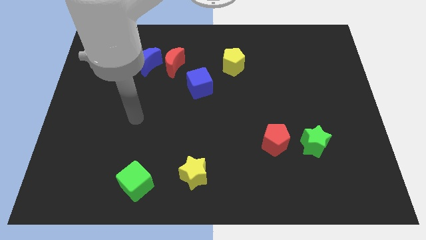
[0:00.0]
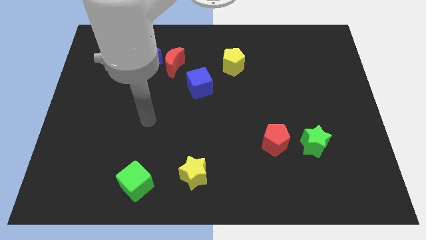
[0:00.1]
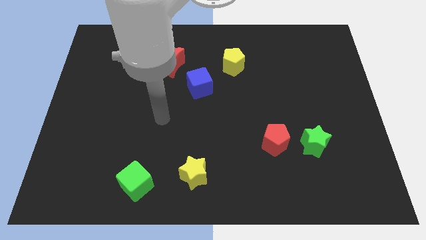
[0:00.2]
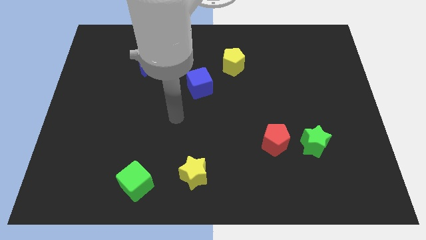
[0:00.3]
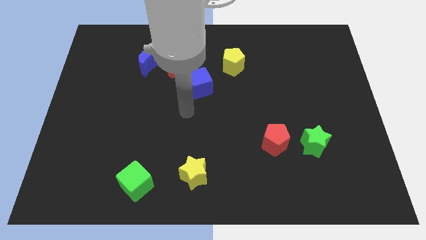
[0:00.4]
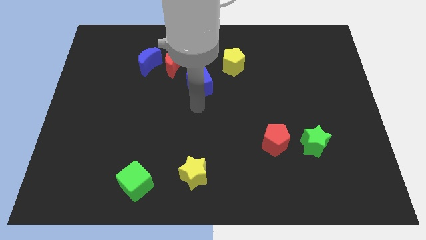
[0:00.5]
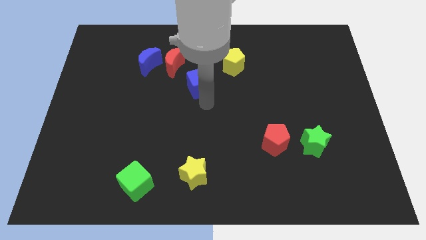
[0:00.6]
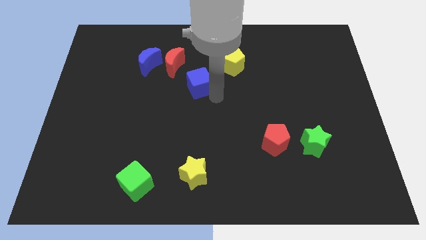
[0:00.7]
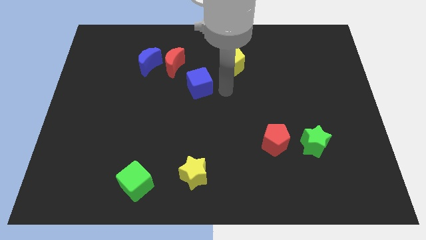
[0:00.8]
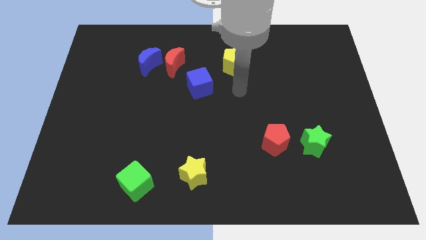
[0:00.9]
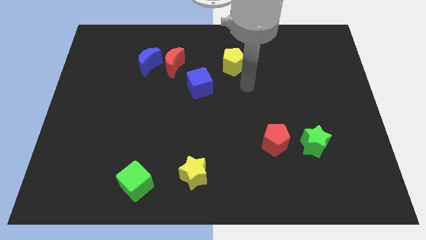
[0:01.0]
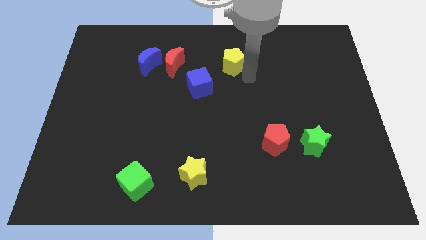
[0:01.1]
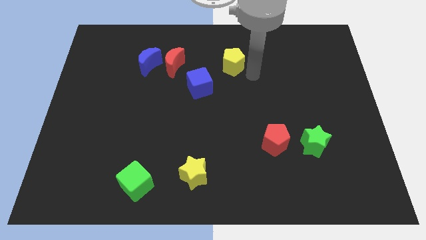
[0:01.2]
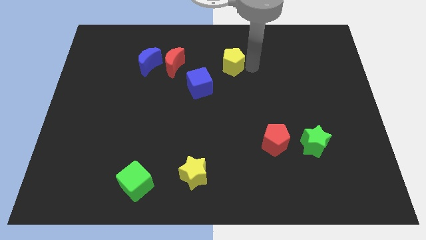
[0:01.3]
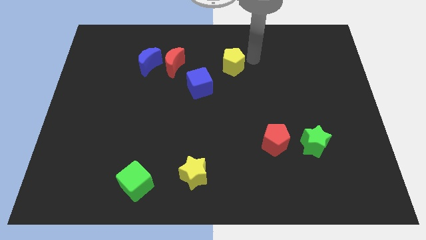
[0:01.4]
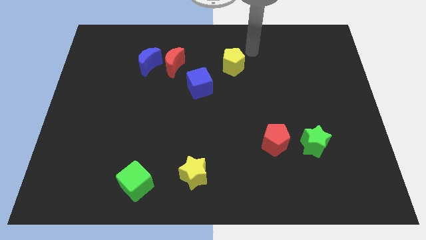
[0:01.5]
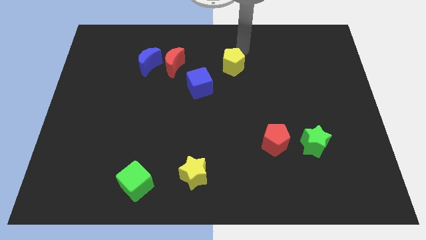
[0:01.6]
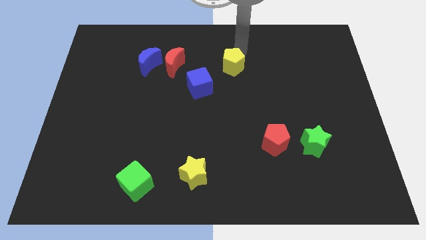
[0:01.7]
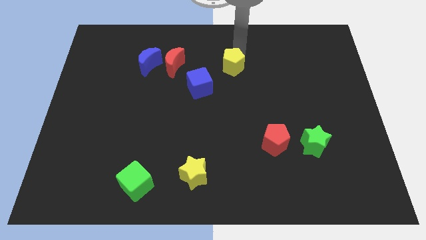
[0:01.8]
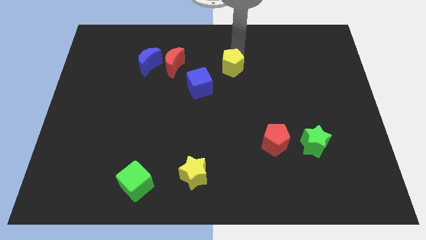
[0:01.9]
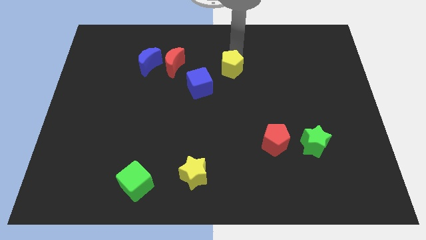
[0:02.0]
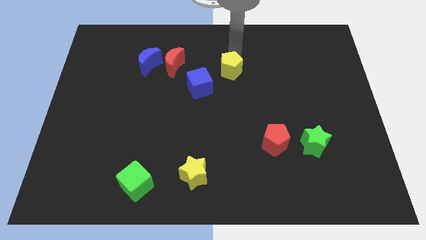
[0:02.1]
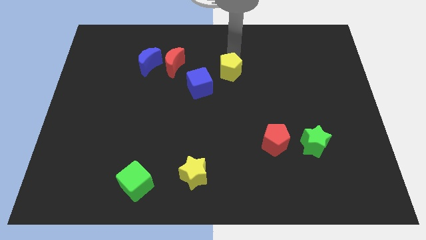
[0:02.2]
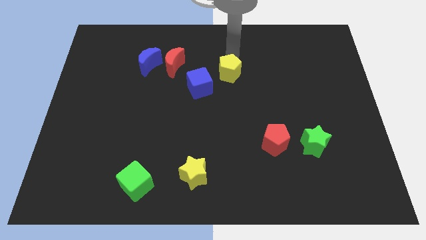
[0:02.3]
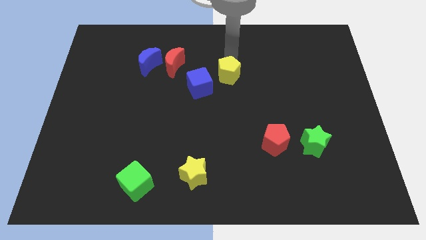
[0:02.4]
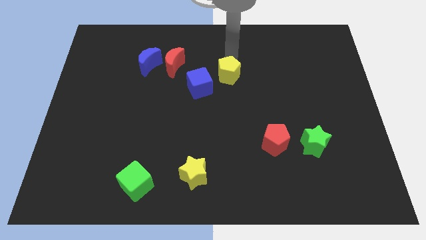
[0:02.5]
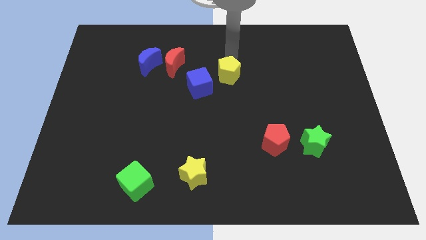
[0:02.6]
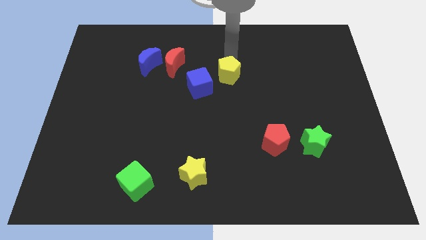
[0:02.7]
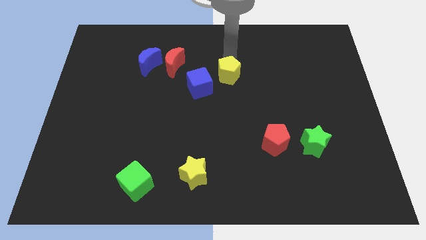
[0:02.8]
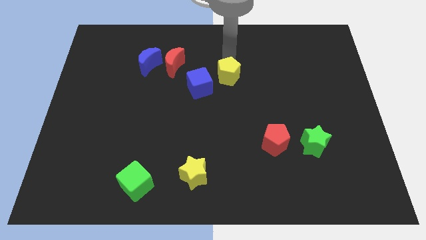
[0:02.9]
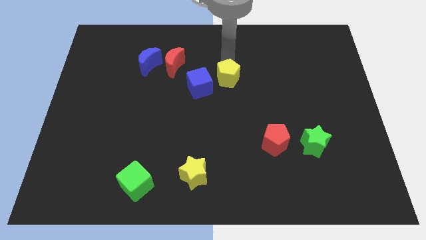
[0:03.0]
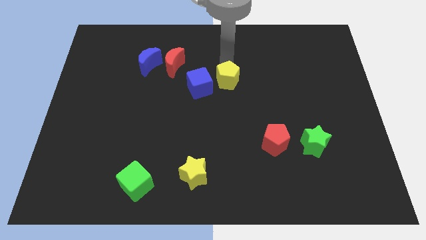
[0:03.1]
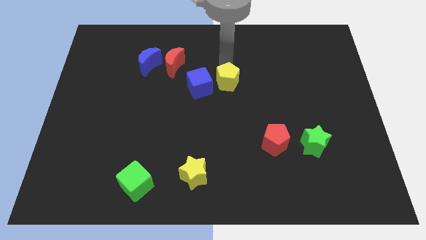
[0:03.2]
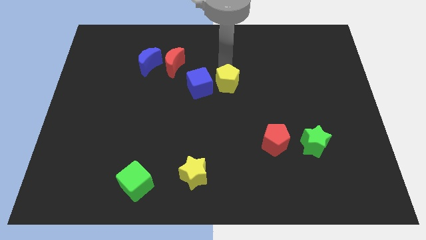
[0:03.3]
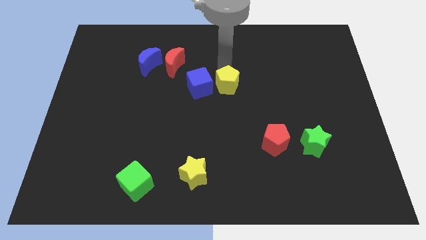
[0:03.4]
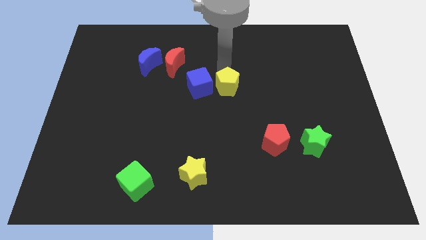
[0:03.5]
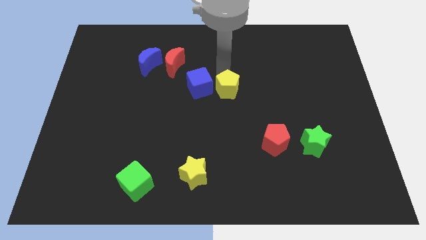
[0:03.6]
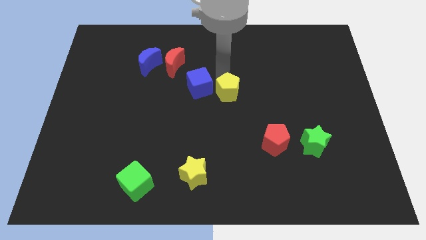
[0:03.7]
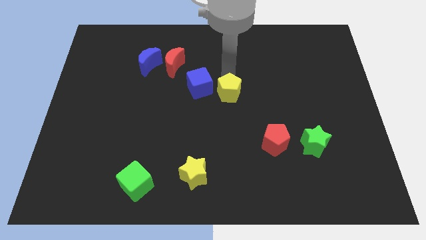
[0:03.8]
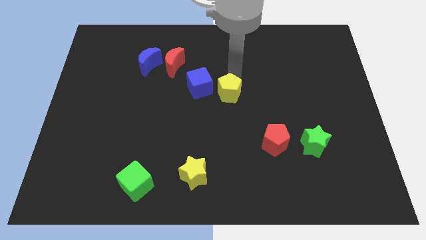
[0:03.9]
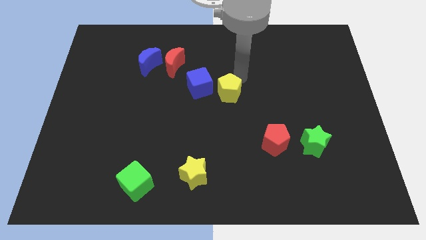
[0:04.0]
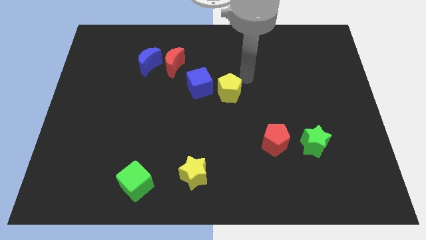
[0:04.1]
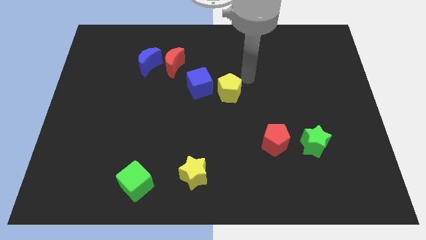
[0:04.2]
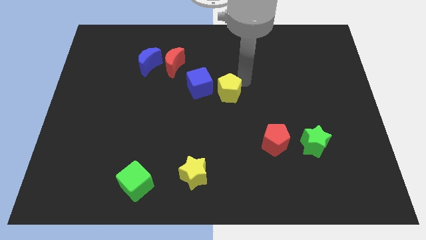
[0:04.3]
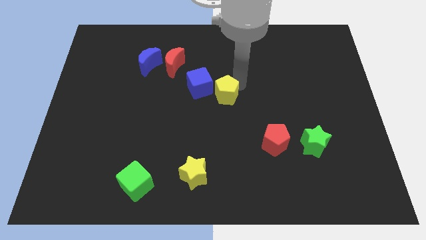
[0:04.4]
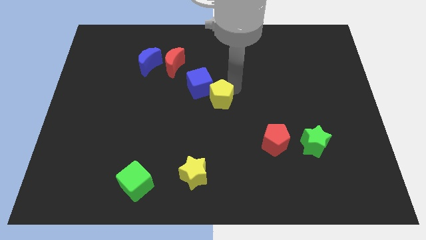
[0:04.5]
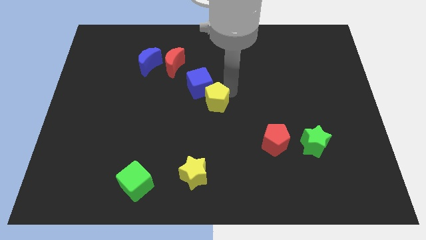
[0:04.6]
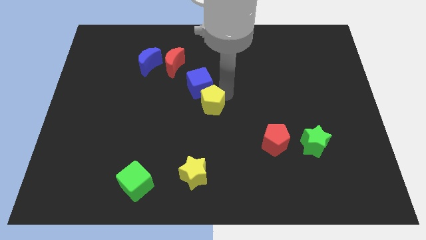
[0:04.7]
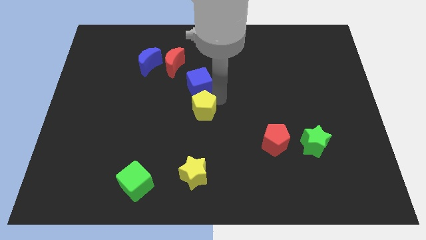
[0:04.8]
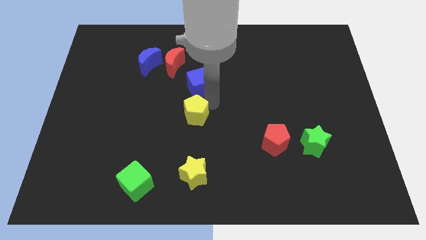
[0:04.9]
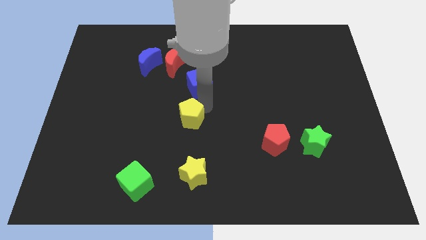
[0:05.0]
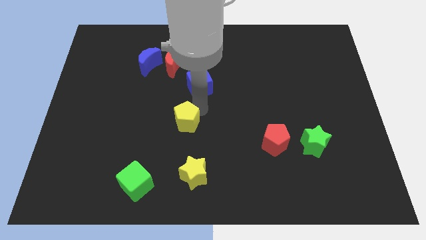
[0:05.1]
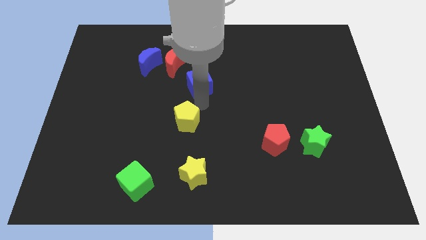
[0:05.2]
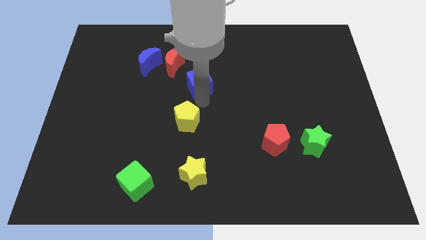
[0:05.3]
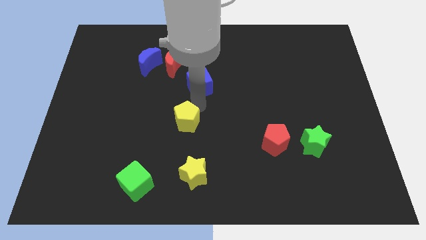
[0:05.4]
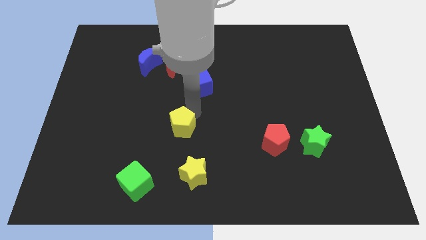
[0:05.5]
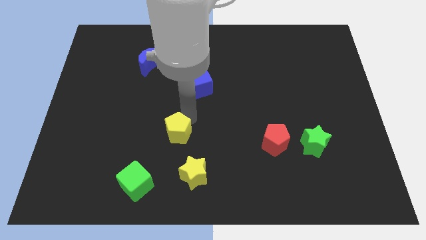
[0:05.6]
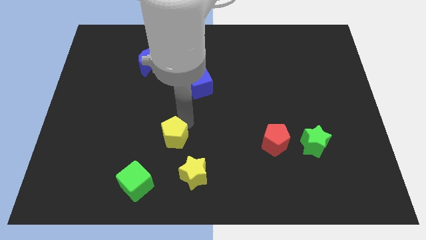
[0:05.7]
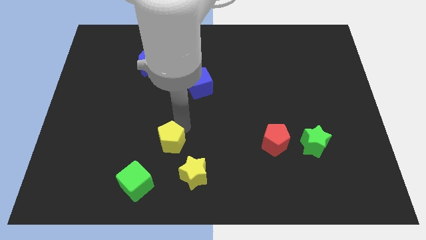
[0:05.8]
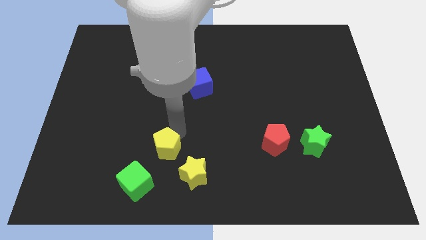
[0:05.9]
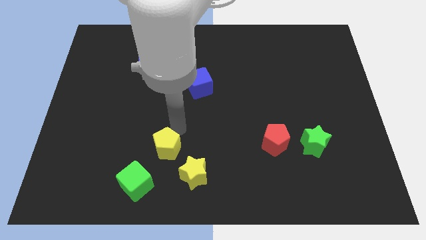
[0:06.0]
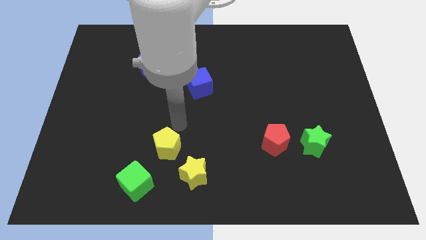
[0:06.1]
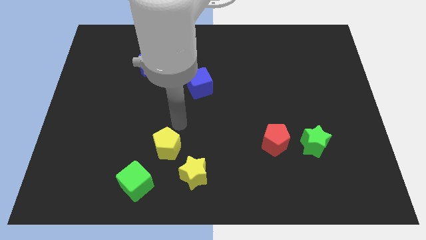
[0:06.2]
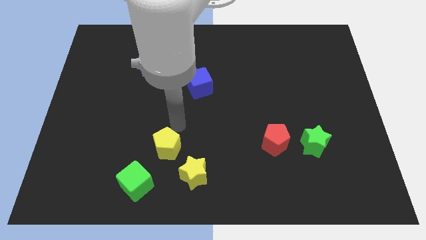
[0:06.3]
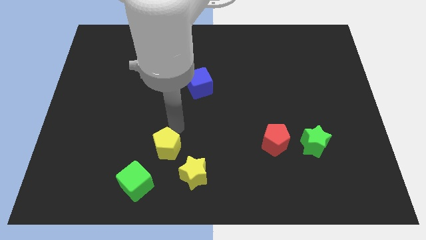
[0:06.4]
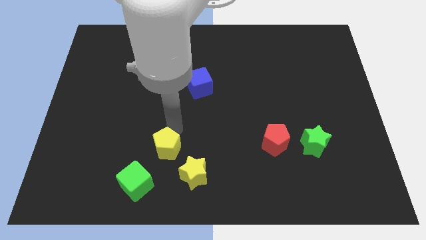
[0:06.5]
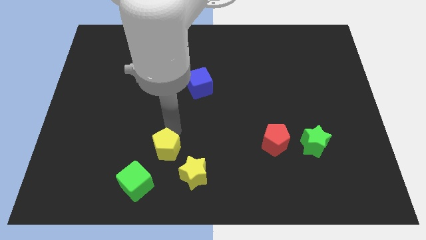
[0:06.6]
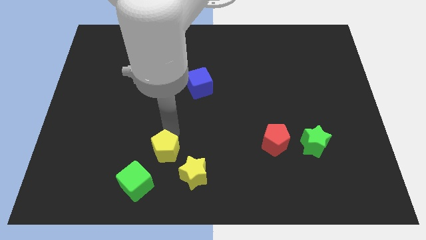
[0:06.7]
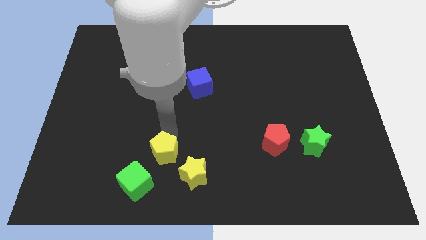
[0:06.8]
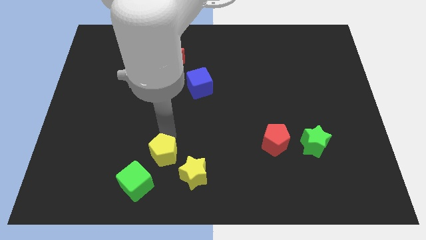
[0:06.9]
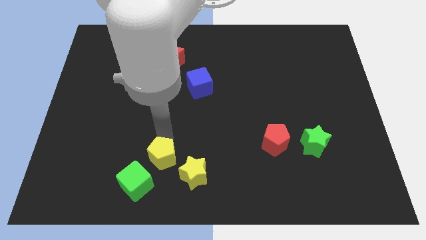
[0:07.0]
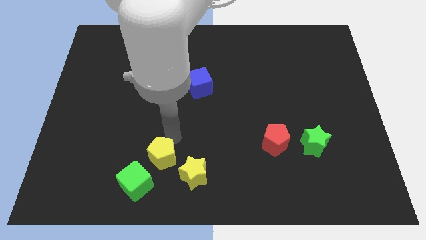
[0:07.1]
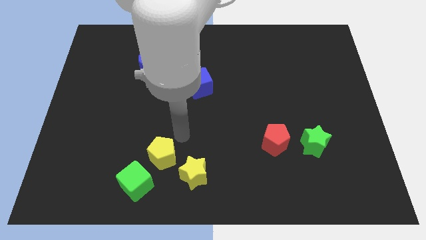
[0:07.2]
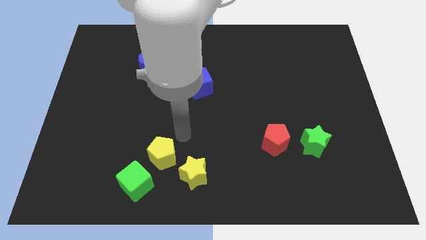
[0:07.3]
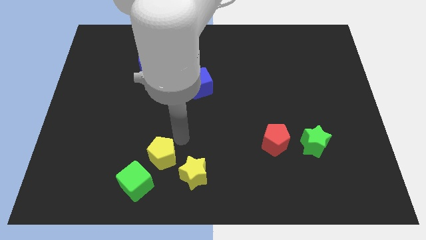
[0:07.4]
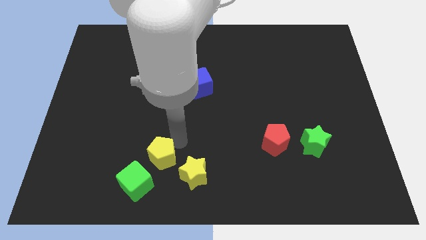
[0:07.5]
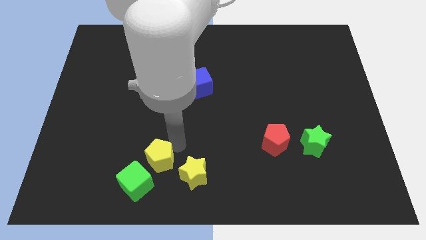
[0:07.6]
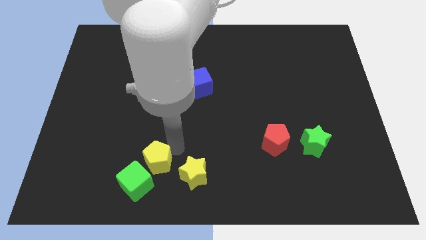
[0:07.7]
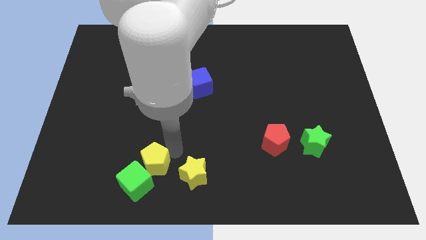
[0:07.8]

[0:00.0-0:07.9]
move the yellow pentagon to the green cube
